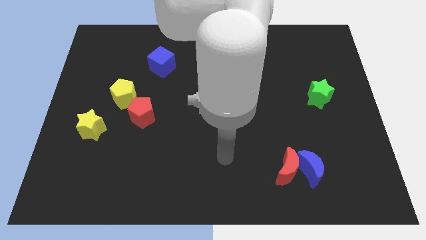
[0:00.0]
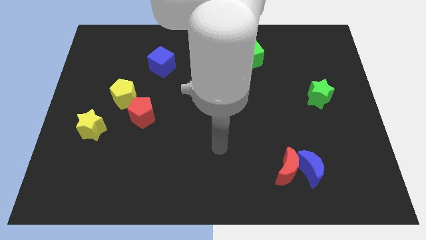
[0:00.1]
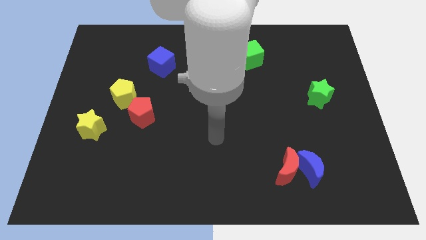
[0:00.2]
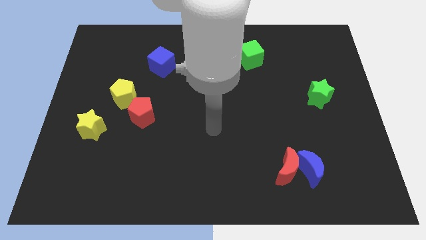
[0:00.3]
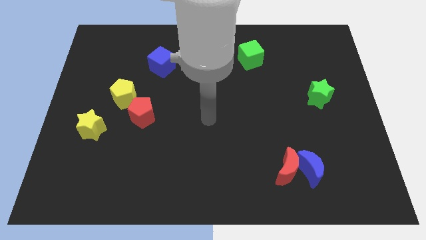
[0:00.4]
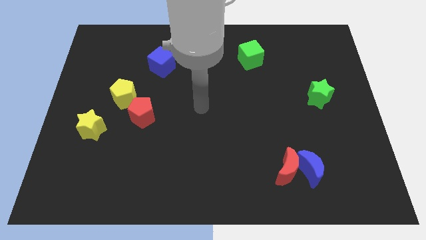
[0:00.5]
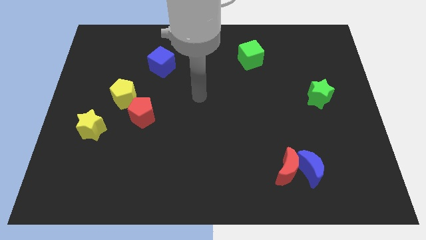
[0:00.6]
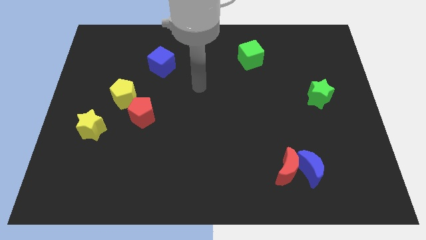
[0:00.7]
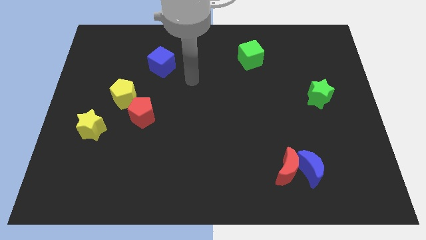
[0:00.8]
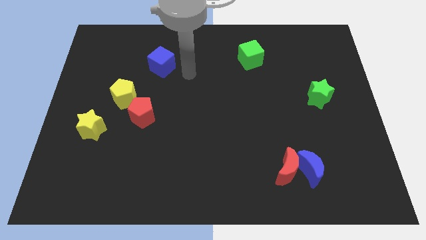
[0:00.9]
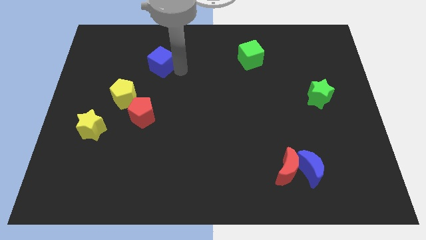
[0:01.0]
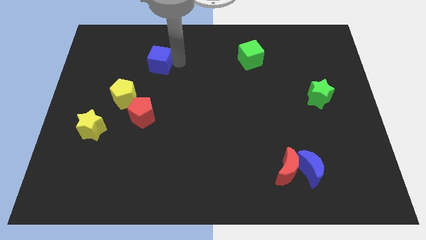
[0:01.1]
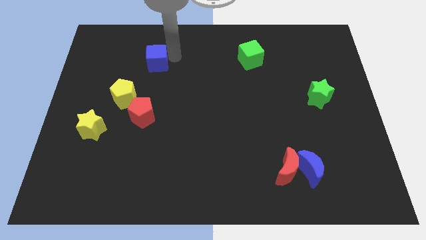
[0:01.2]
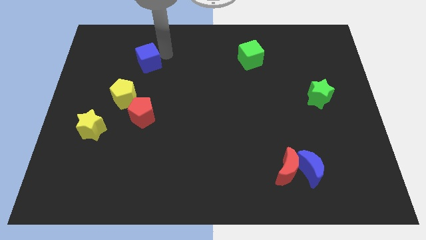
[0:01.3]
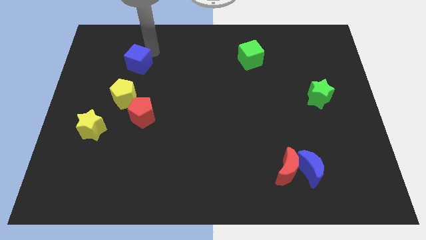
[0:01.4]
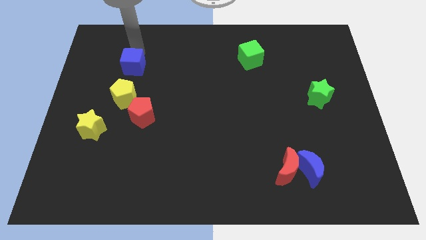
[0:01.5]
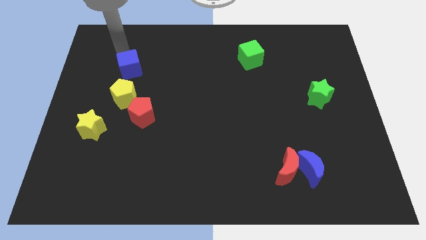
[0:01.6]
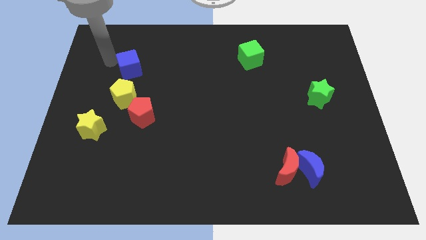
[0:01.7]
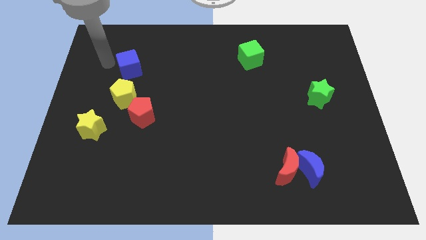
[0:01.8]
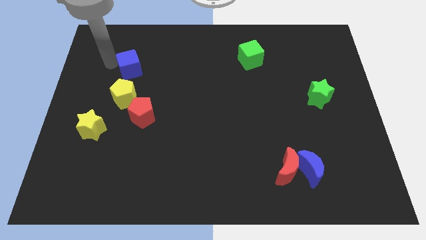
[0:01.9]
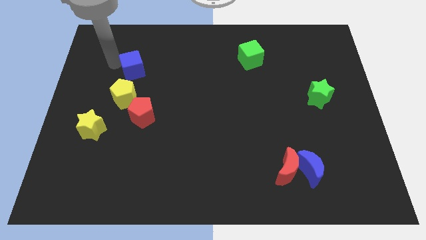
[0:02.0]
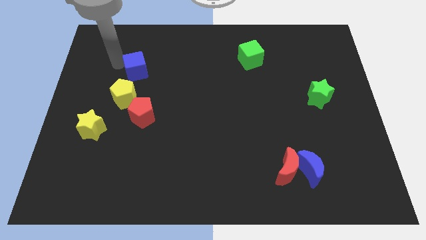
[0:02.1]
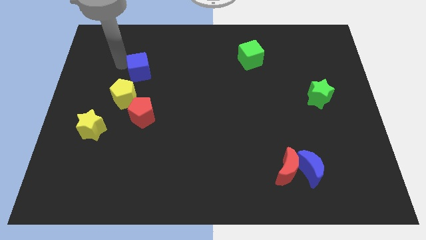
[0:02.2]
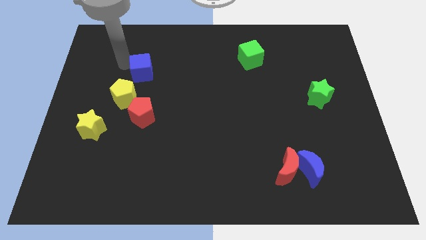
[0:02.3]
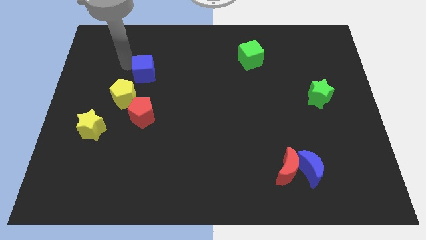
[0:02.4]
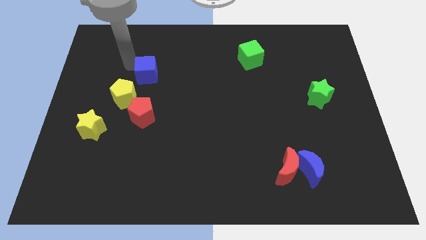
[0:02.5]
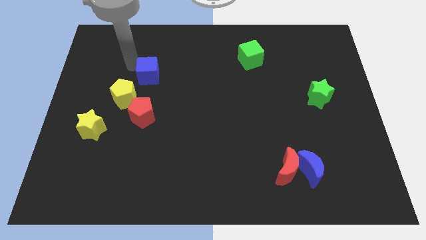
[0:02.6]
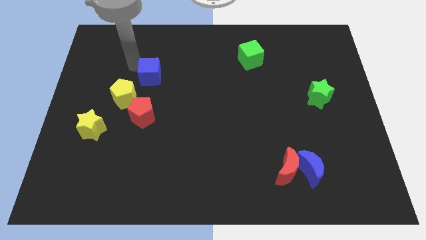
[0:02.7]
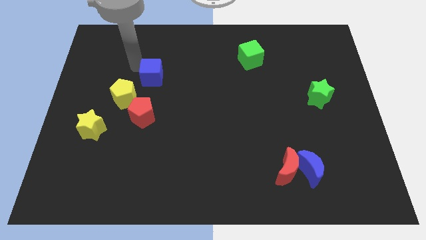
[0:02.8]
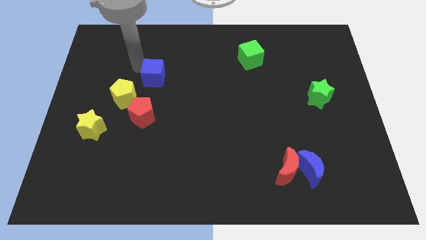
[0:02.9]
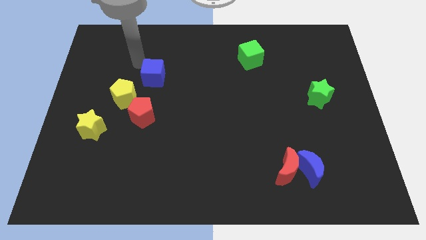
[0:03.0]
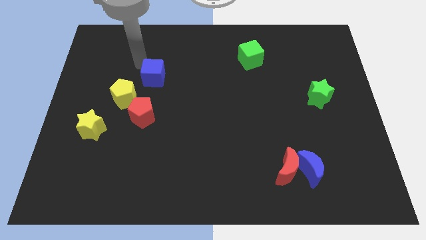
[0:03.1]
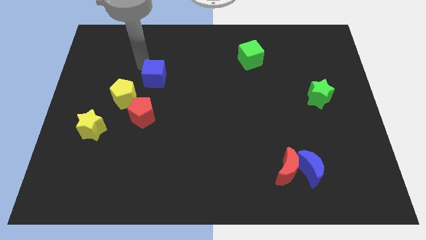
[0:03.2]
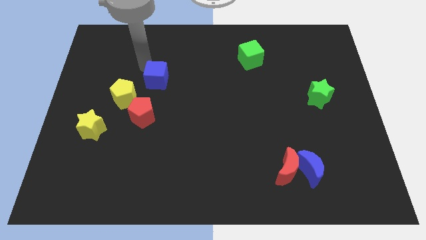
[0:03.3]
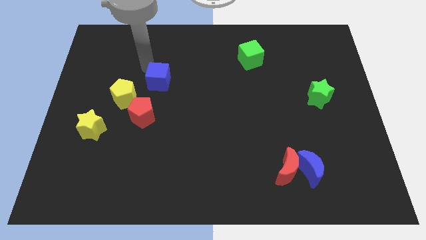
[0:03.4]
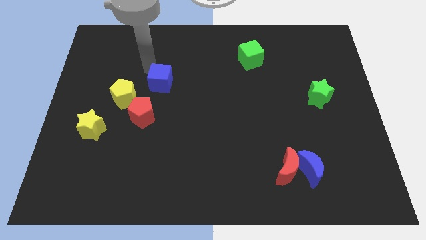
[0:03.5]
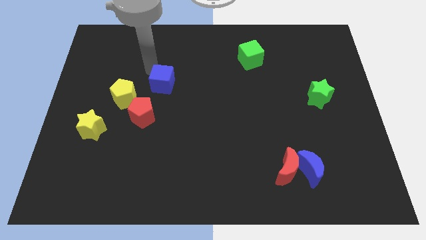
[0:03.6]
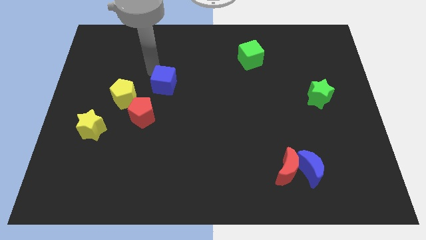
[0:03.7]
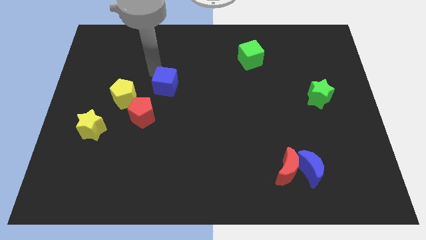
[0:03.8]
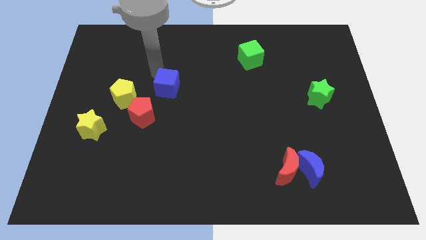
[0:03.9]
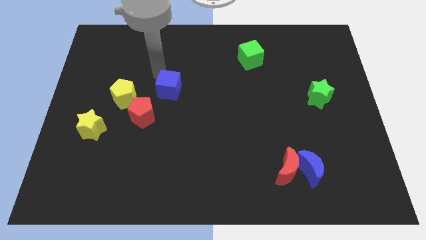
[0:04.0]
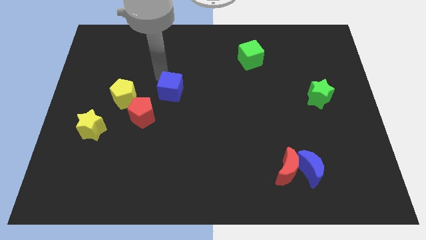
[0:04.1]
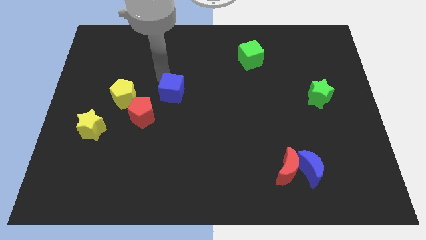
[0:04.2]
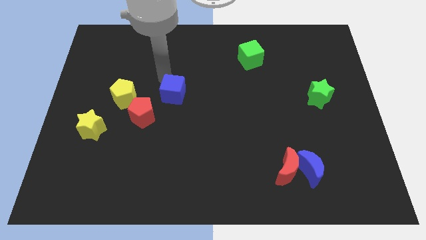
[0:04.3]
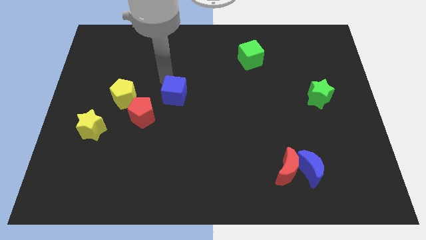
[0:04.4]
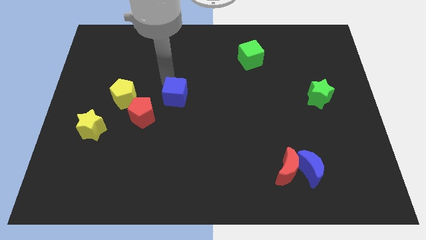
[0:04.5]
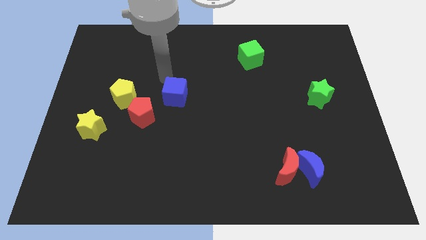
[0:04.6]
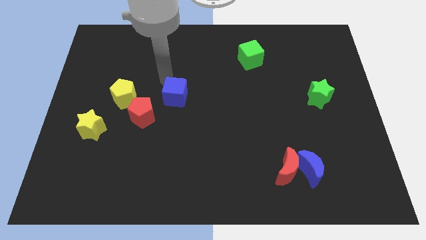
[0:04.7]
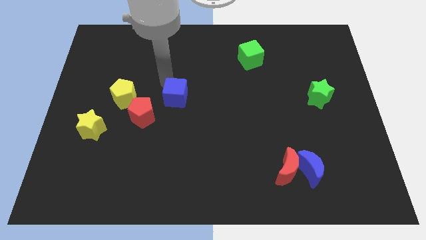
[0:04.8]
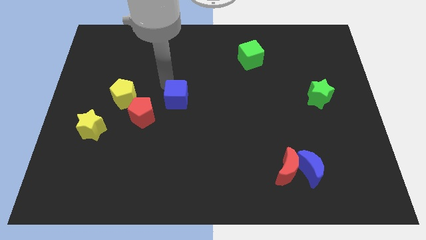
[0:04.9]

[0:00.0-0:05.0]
put the blue cube to the right side of the red pentagon

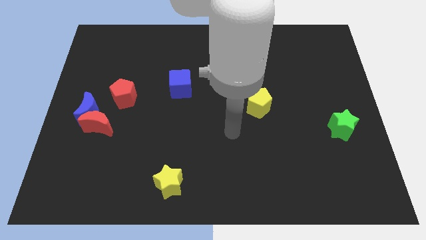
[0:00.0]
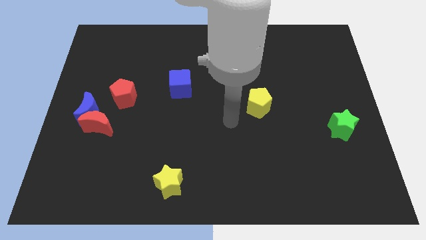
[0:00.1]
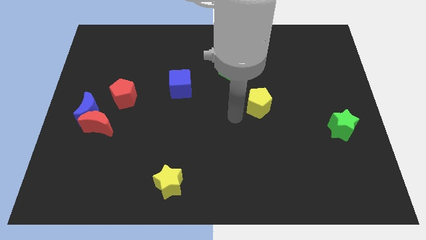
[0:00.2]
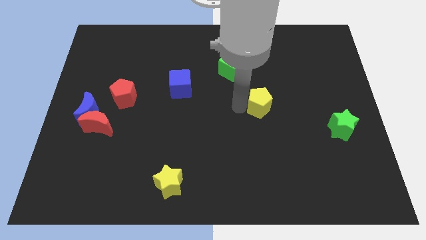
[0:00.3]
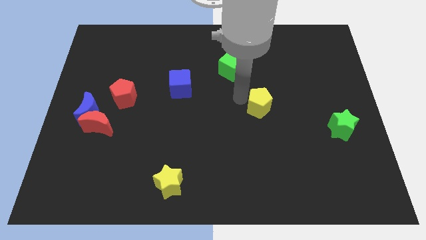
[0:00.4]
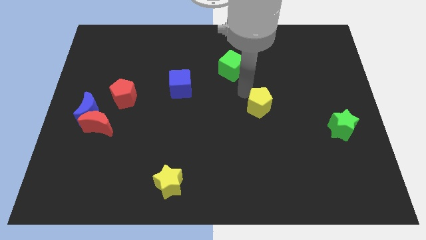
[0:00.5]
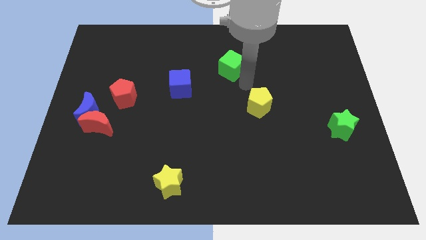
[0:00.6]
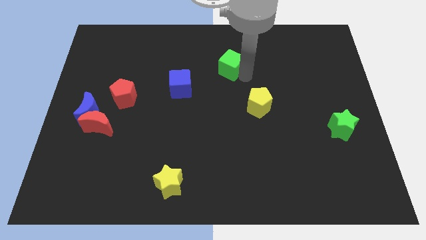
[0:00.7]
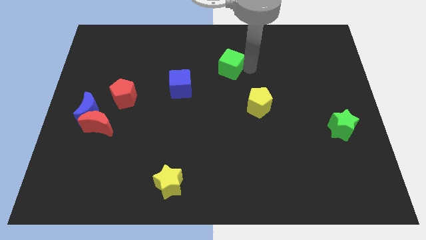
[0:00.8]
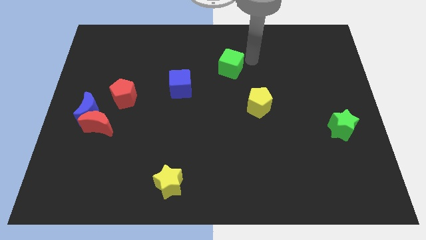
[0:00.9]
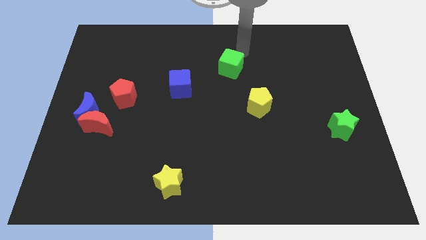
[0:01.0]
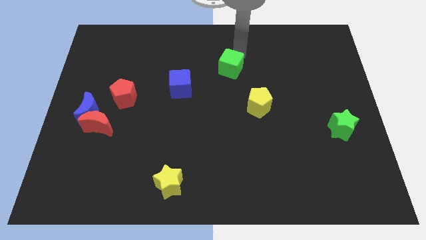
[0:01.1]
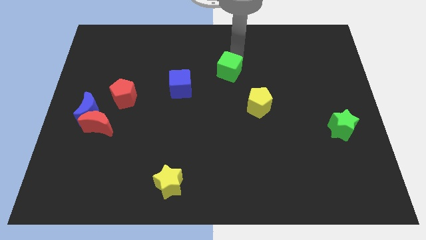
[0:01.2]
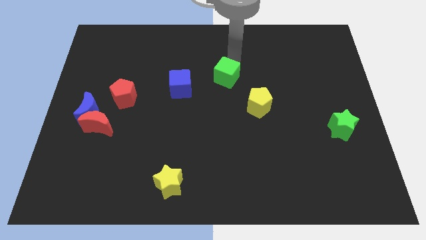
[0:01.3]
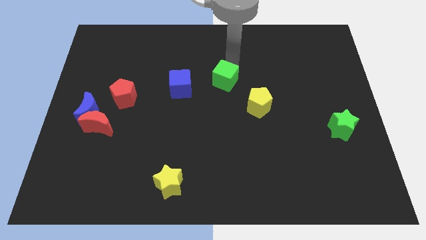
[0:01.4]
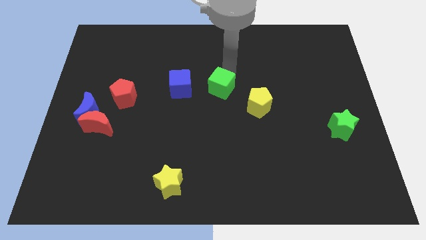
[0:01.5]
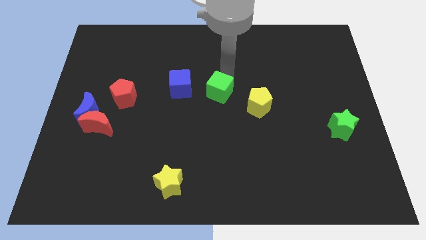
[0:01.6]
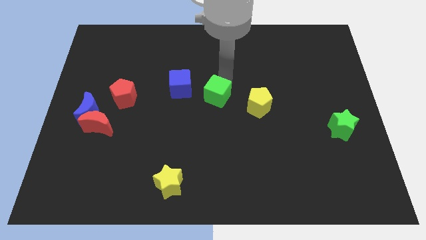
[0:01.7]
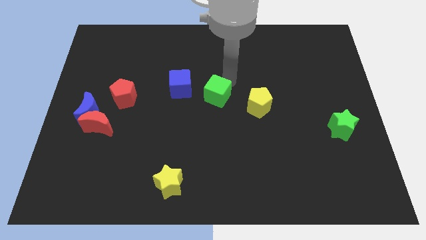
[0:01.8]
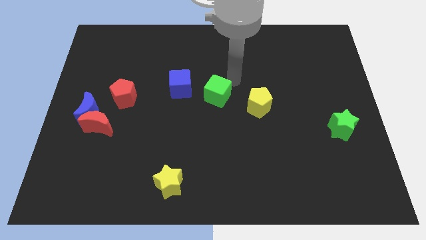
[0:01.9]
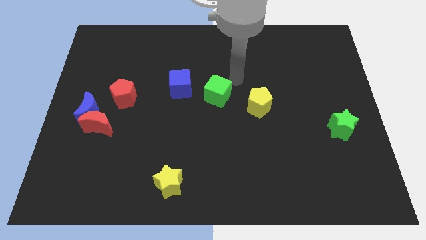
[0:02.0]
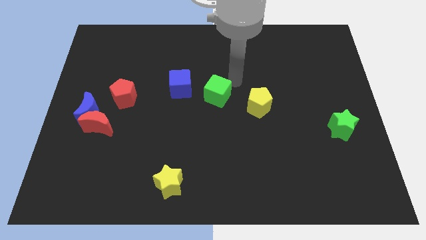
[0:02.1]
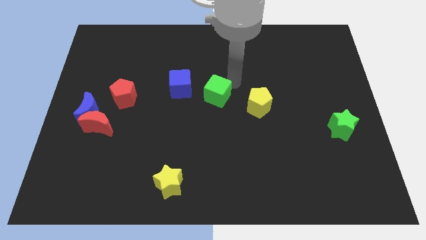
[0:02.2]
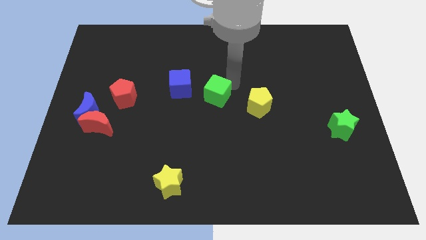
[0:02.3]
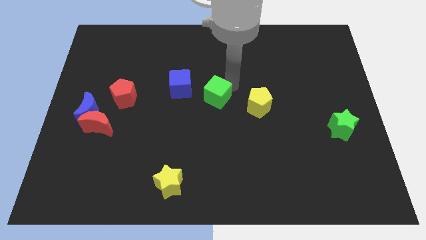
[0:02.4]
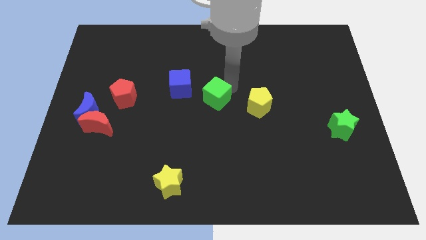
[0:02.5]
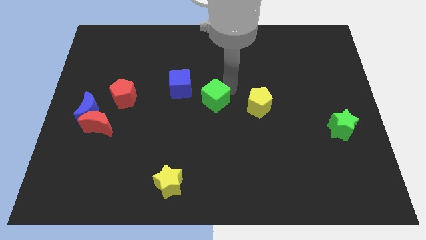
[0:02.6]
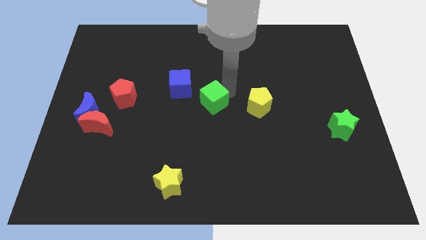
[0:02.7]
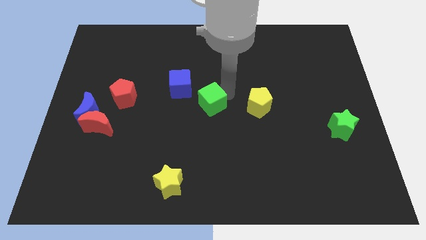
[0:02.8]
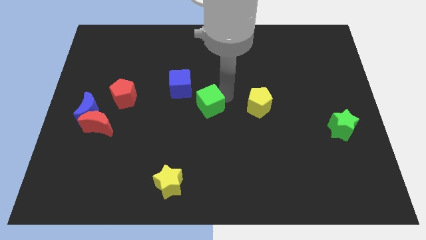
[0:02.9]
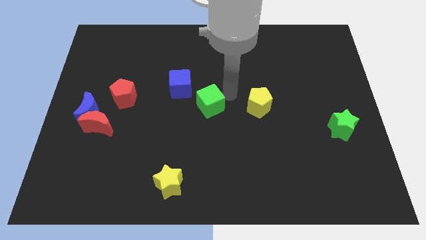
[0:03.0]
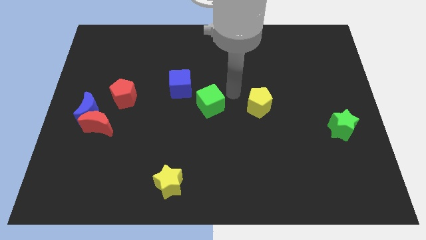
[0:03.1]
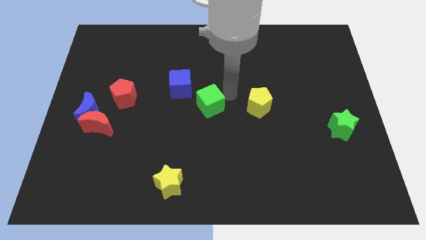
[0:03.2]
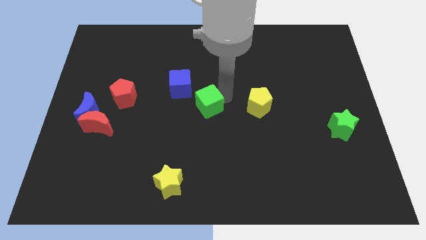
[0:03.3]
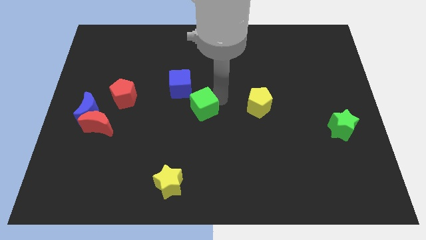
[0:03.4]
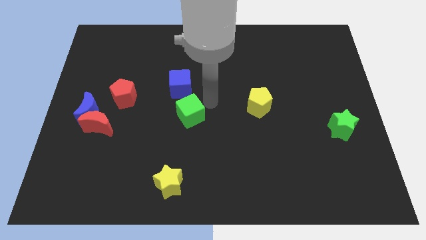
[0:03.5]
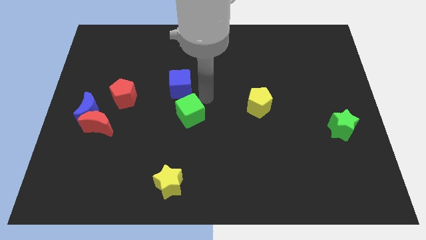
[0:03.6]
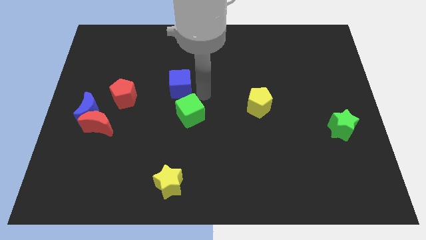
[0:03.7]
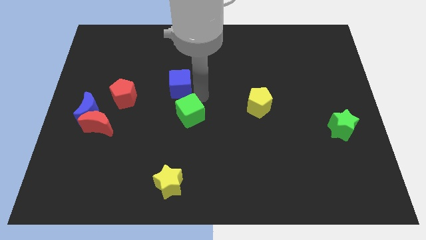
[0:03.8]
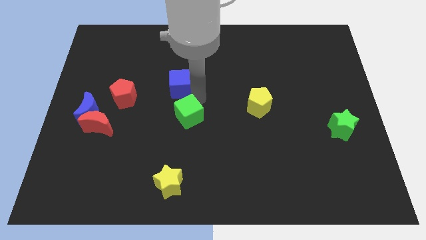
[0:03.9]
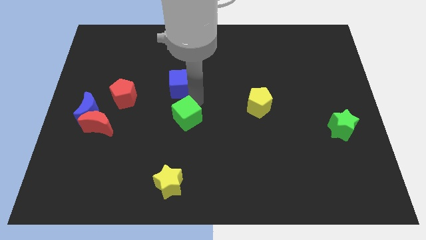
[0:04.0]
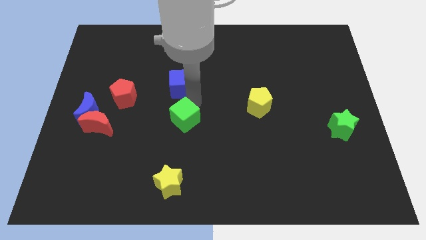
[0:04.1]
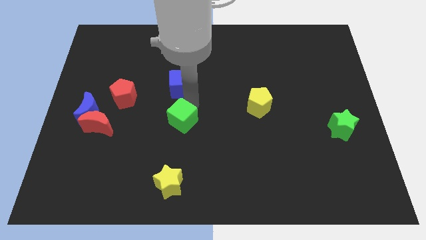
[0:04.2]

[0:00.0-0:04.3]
move the green cube to the top of the yellow star
